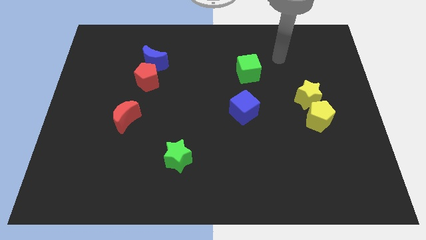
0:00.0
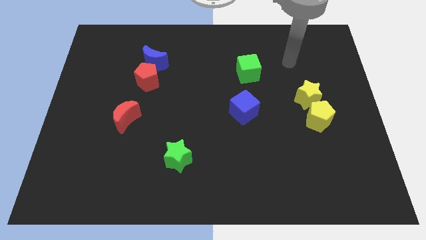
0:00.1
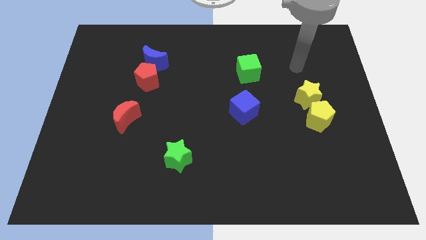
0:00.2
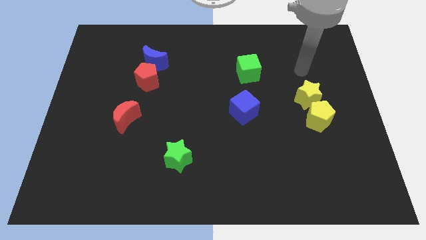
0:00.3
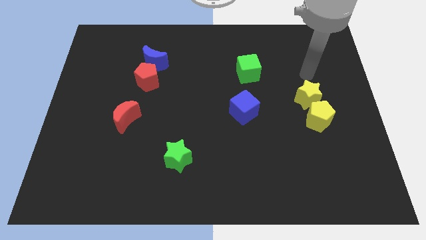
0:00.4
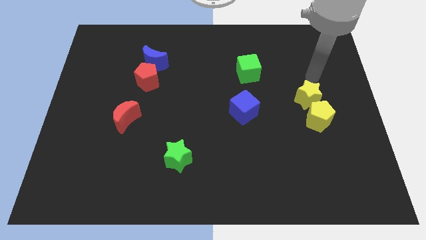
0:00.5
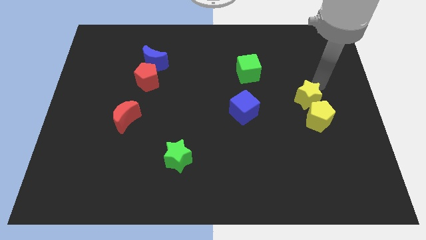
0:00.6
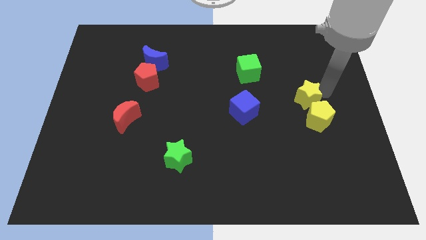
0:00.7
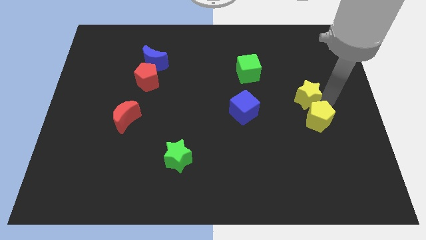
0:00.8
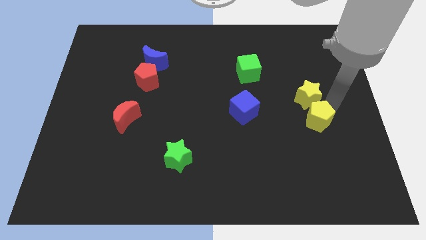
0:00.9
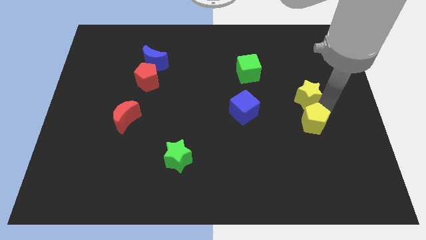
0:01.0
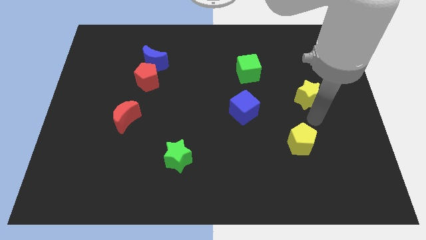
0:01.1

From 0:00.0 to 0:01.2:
pull the yellow star apart from the yellow pentagon

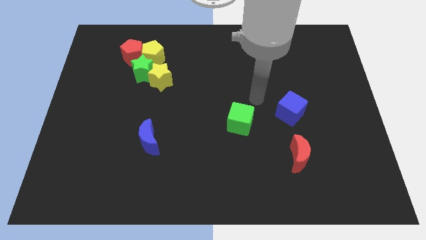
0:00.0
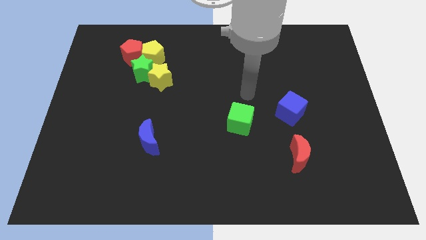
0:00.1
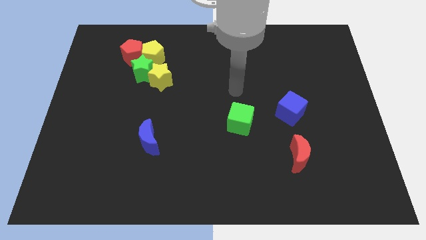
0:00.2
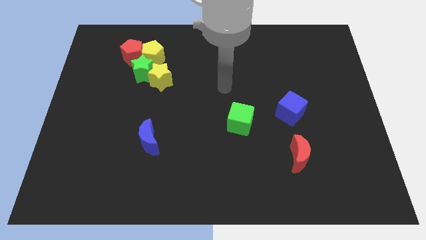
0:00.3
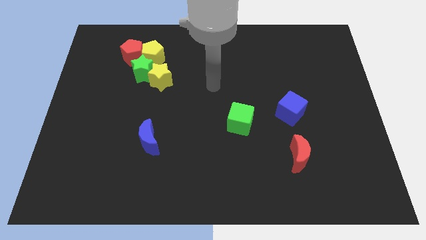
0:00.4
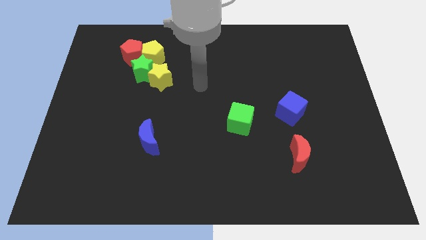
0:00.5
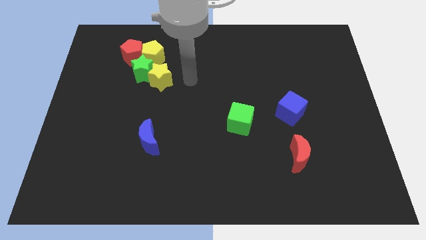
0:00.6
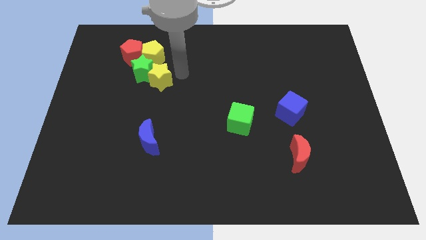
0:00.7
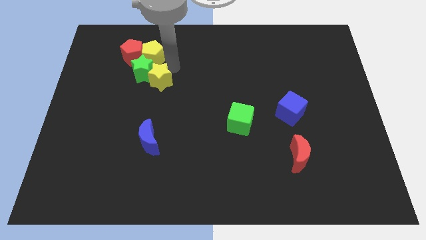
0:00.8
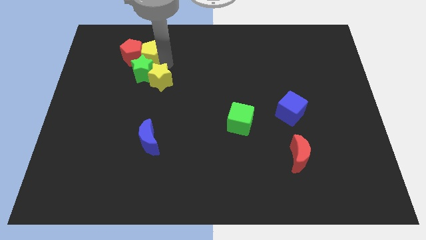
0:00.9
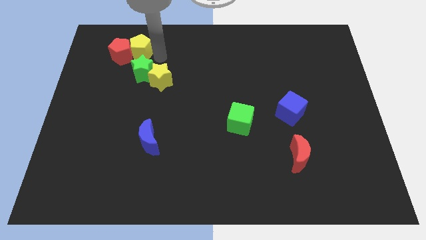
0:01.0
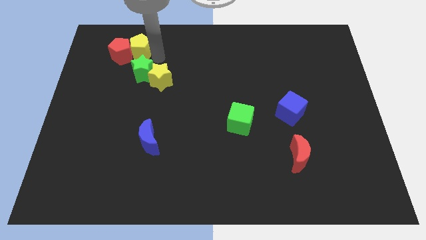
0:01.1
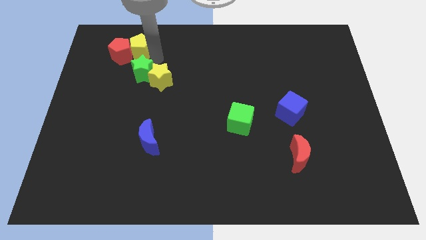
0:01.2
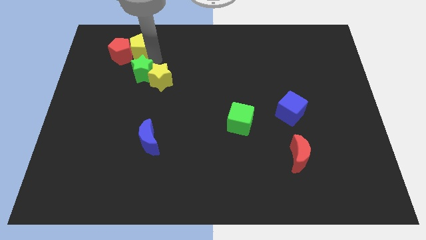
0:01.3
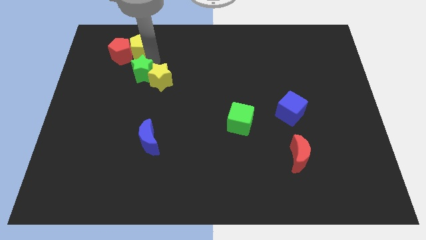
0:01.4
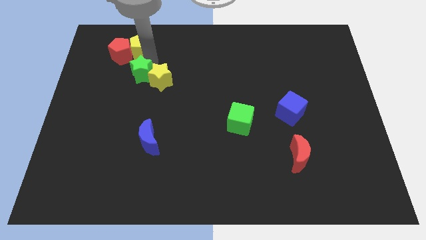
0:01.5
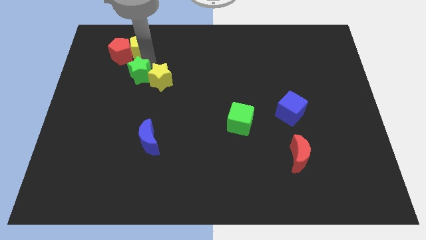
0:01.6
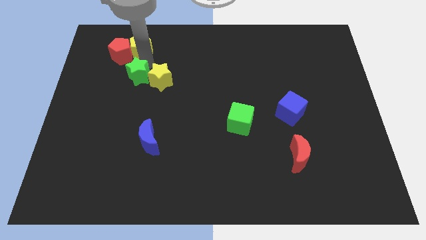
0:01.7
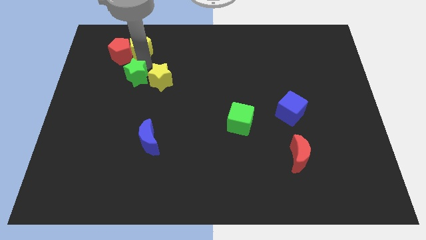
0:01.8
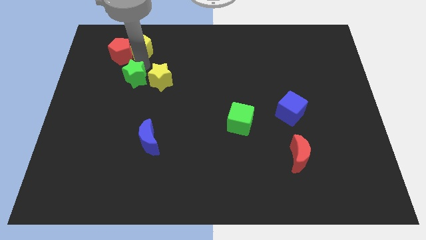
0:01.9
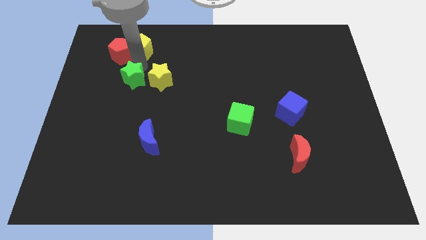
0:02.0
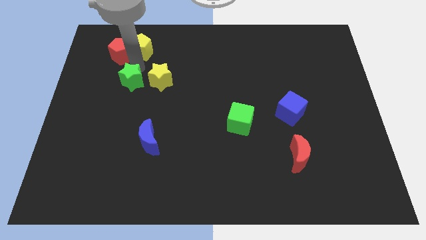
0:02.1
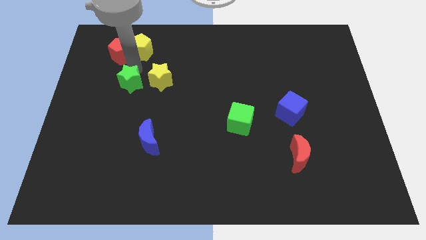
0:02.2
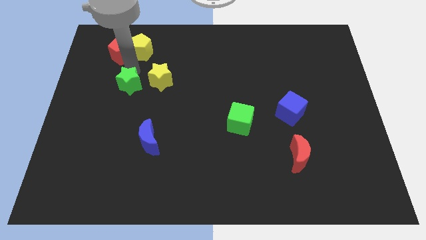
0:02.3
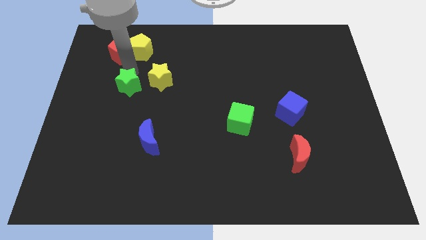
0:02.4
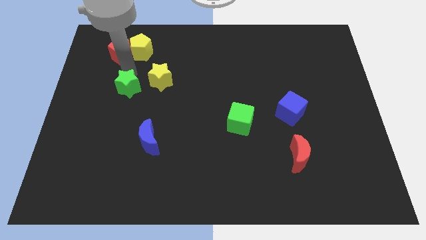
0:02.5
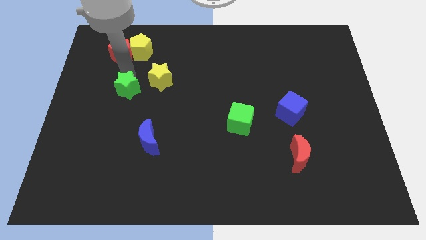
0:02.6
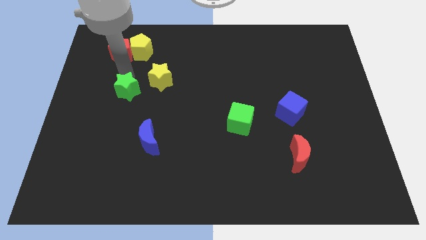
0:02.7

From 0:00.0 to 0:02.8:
move the green star away from the group

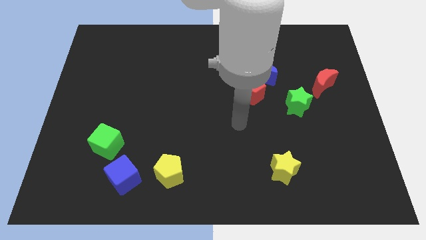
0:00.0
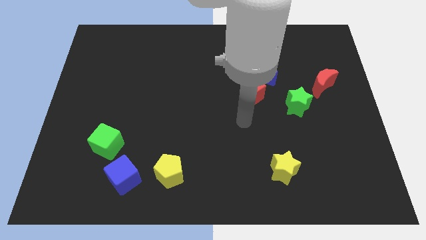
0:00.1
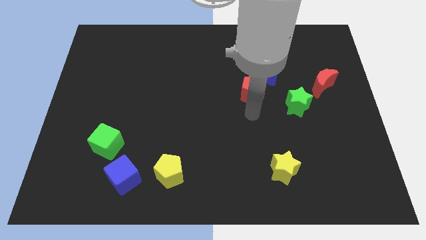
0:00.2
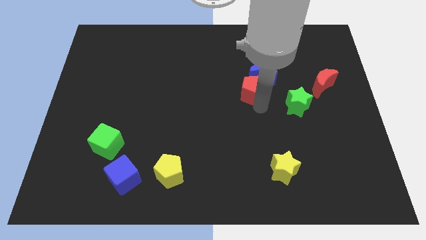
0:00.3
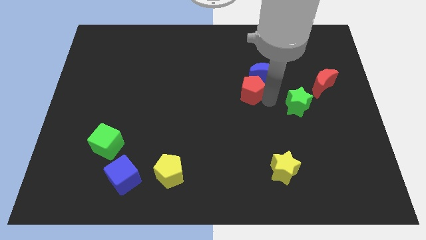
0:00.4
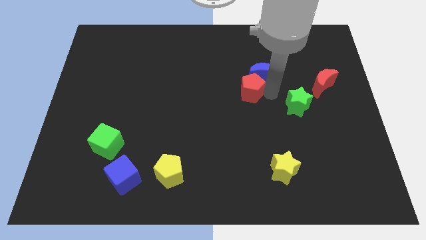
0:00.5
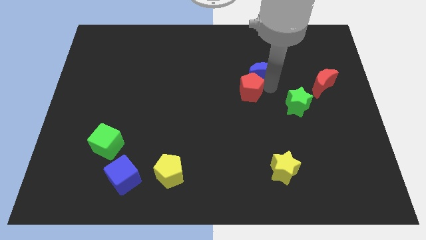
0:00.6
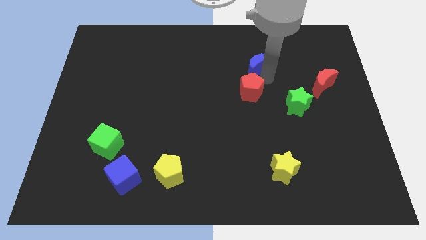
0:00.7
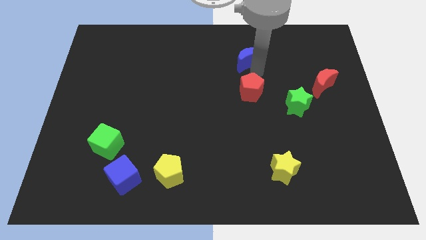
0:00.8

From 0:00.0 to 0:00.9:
pull the red pentagon apart from the blue moon

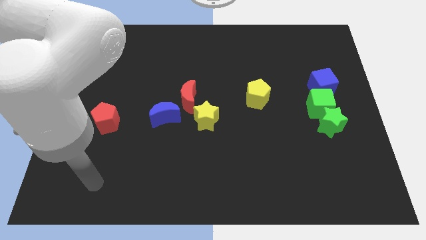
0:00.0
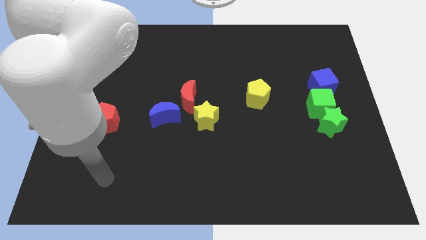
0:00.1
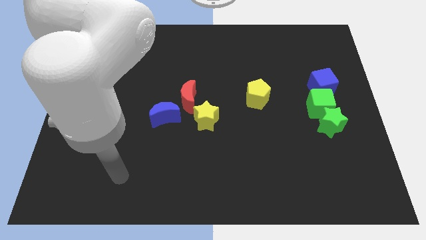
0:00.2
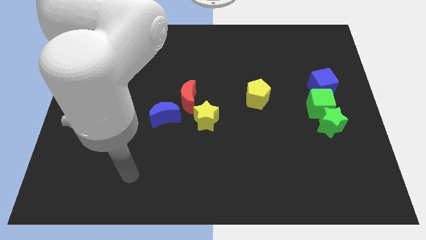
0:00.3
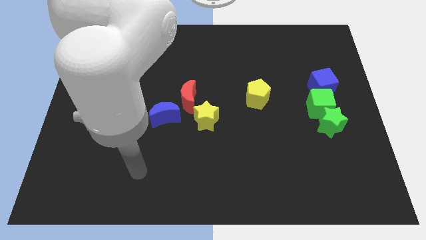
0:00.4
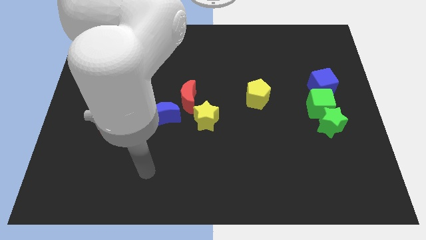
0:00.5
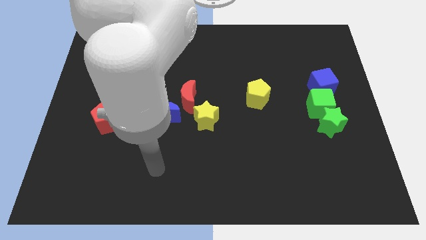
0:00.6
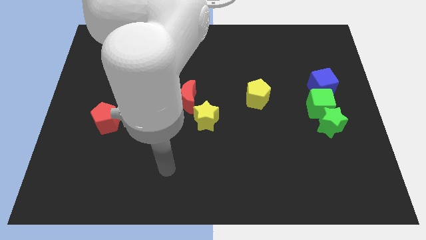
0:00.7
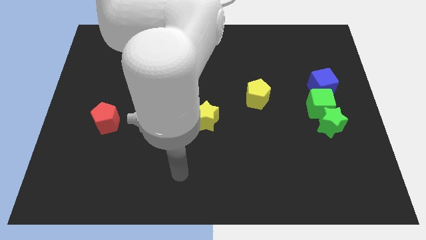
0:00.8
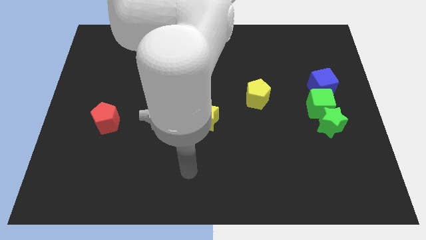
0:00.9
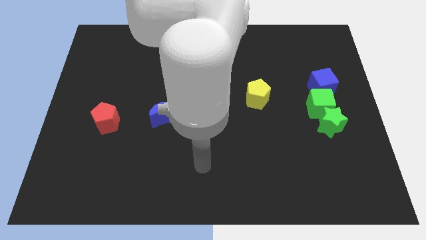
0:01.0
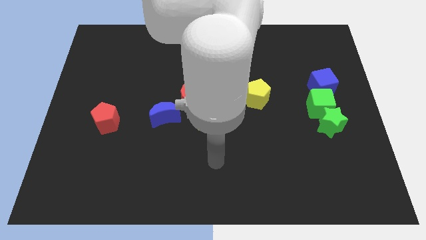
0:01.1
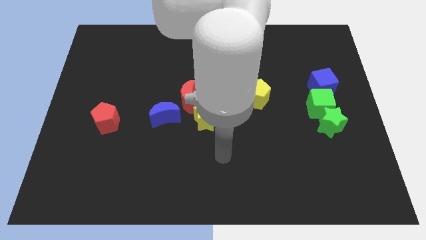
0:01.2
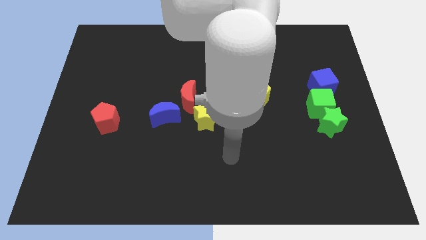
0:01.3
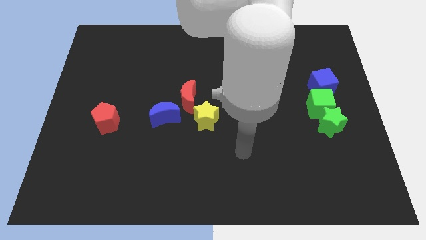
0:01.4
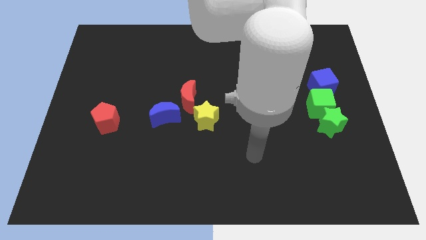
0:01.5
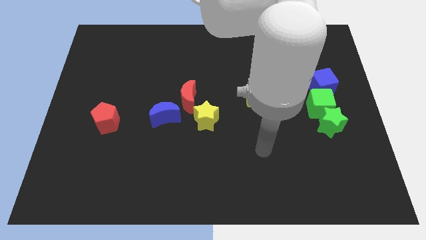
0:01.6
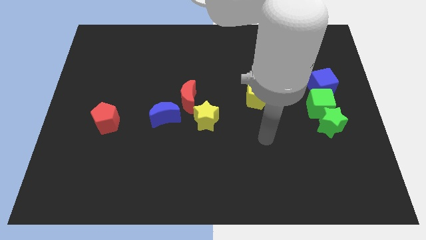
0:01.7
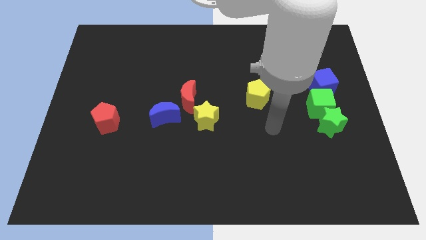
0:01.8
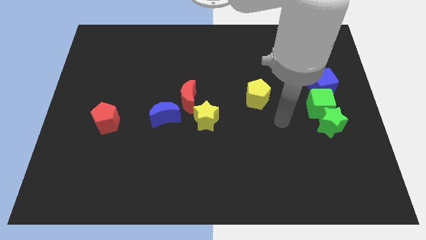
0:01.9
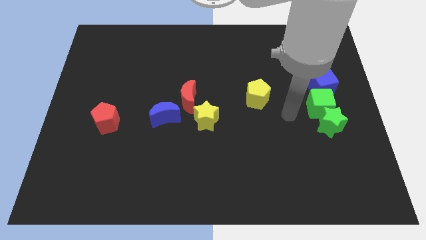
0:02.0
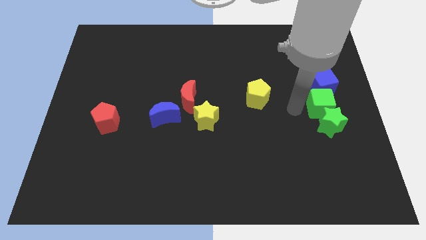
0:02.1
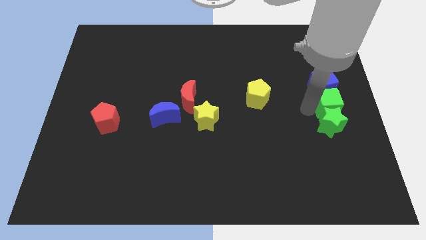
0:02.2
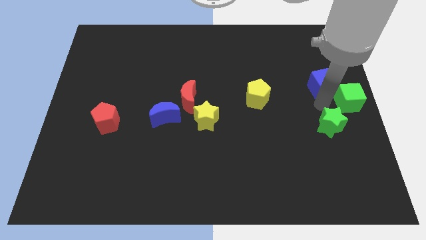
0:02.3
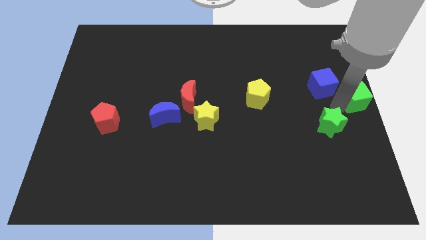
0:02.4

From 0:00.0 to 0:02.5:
move the green star away from the green cube

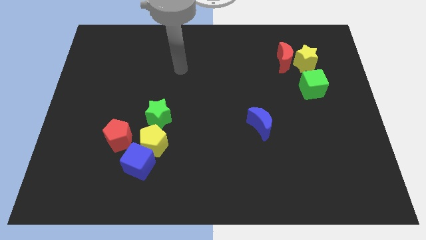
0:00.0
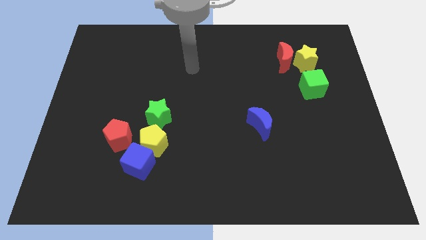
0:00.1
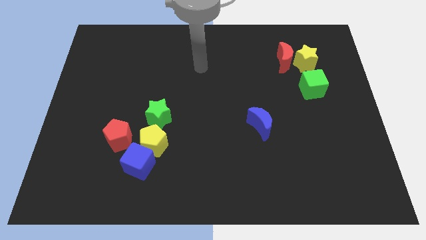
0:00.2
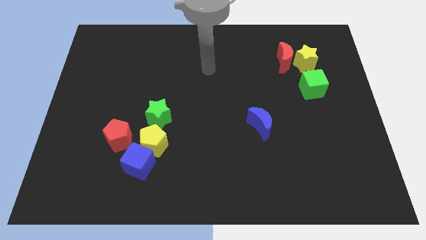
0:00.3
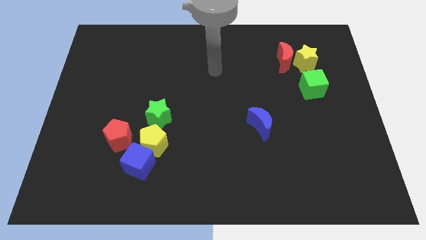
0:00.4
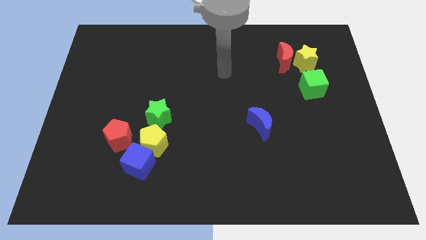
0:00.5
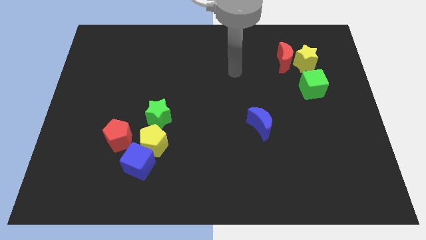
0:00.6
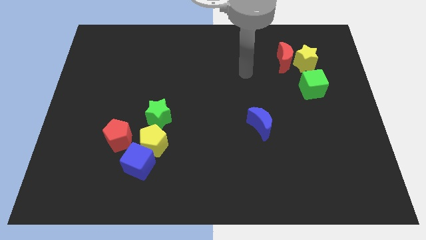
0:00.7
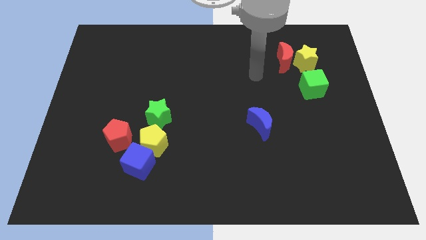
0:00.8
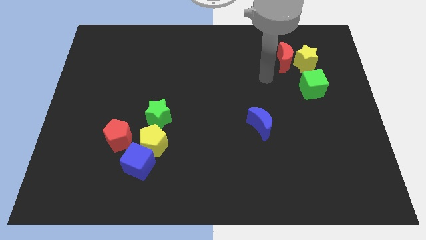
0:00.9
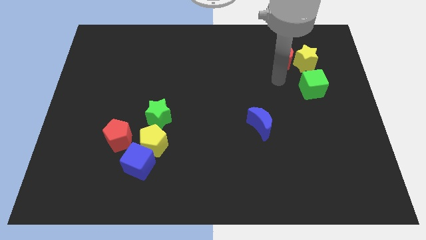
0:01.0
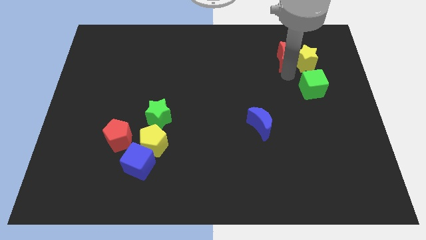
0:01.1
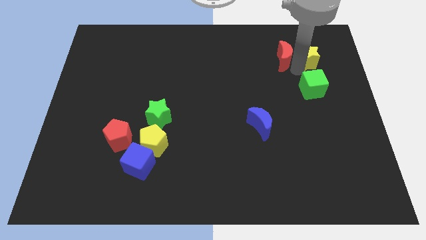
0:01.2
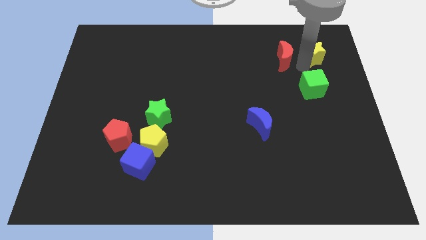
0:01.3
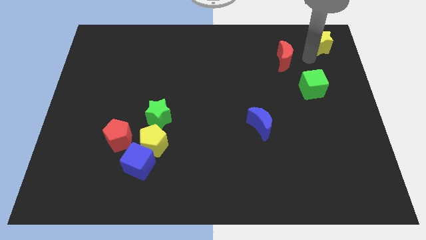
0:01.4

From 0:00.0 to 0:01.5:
pull the red moon apart from the yellow star

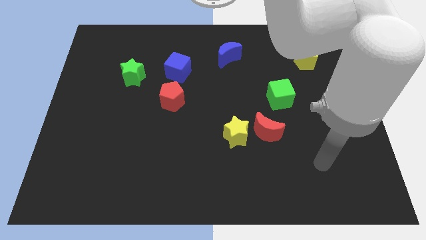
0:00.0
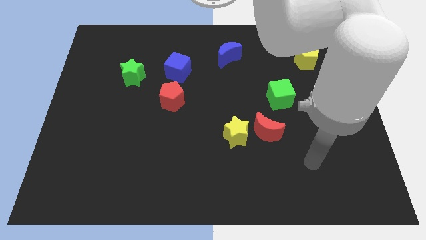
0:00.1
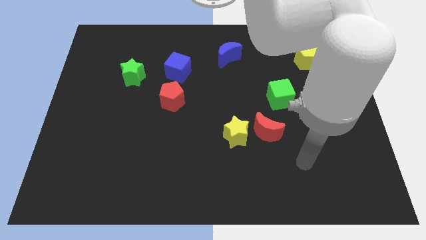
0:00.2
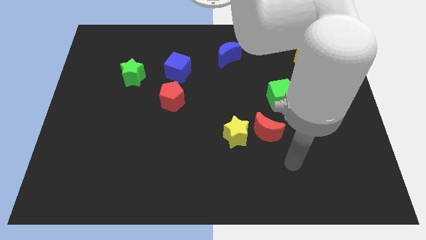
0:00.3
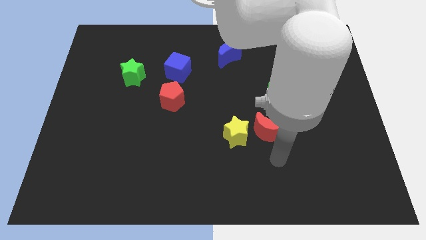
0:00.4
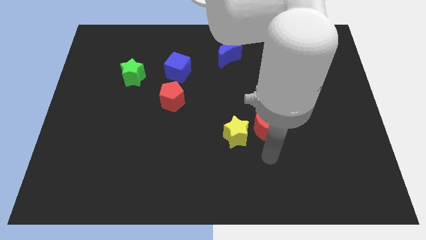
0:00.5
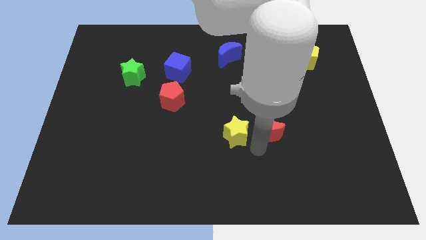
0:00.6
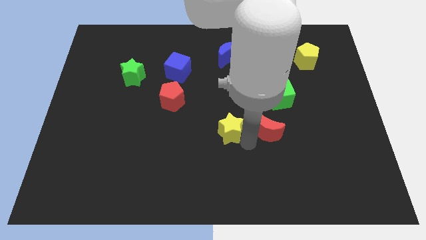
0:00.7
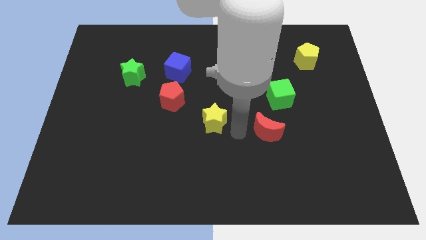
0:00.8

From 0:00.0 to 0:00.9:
move the red moon away from the yellow star
